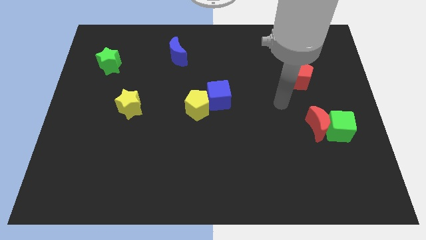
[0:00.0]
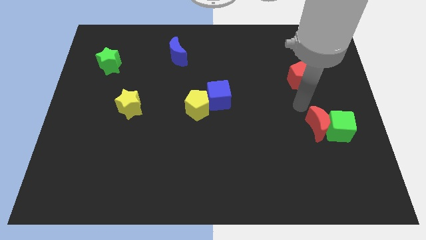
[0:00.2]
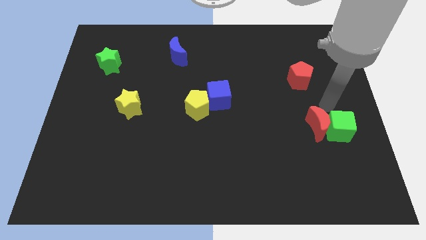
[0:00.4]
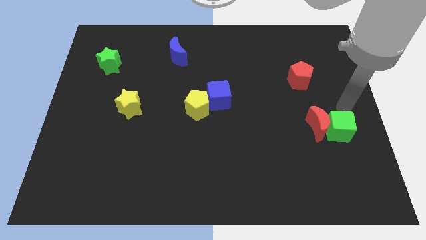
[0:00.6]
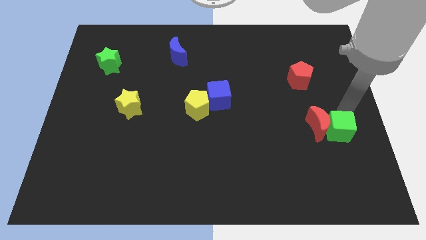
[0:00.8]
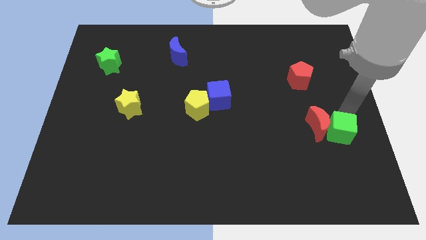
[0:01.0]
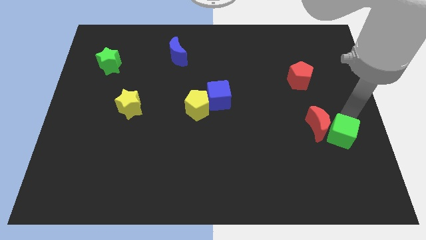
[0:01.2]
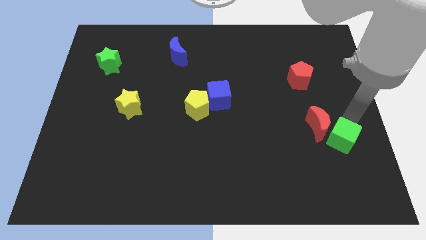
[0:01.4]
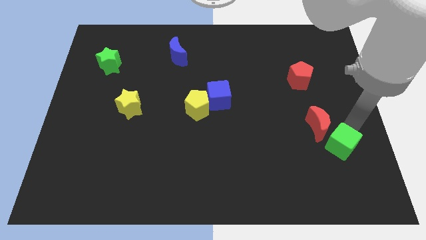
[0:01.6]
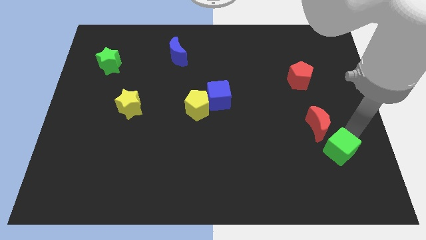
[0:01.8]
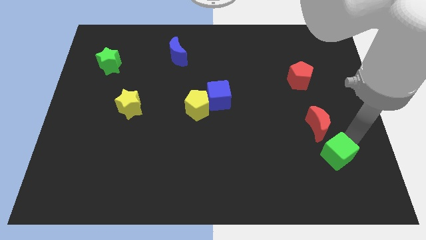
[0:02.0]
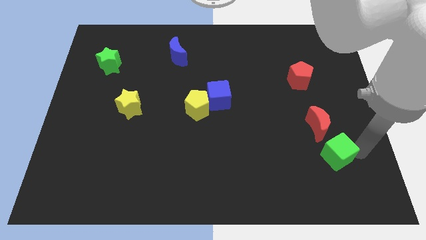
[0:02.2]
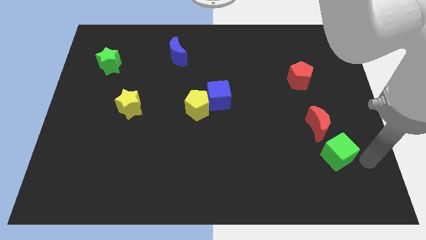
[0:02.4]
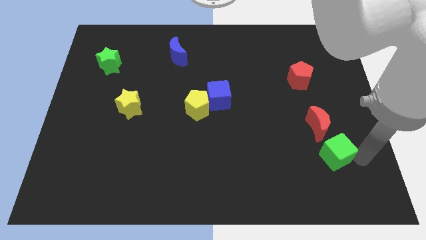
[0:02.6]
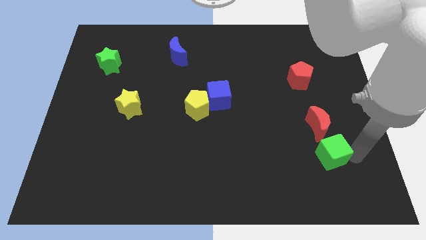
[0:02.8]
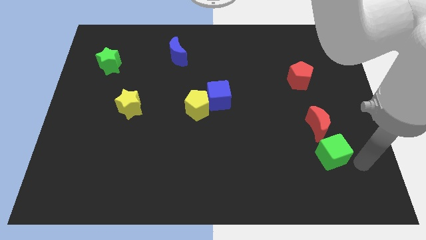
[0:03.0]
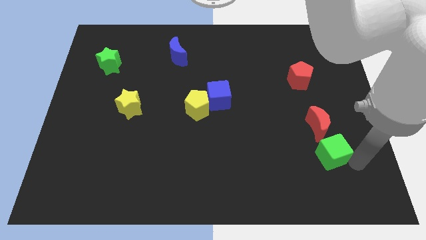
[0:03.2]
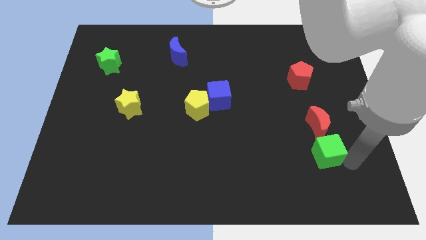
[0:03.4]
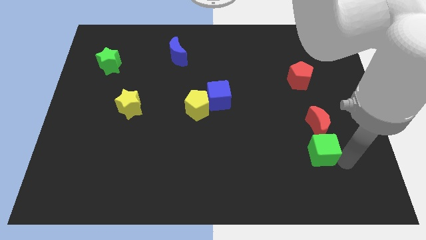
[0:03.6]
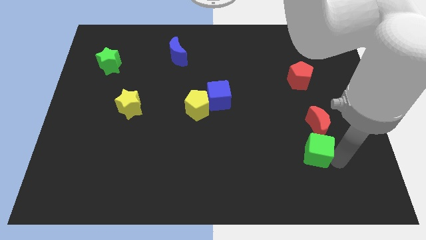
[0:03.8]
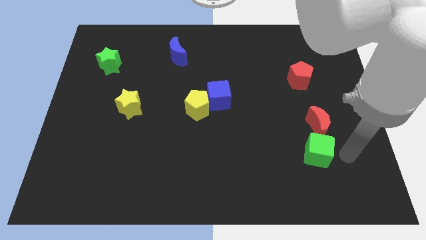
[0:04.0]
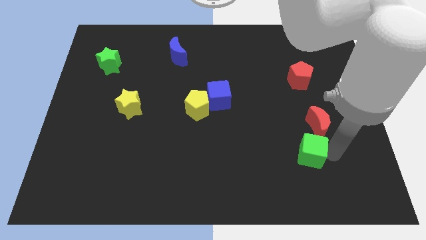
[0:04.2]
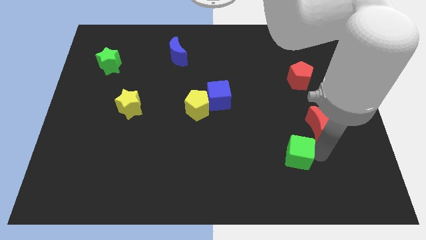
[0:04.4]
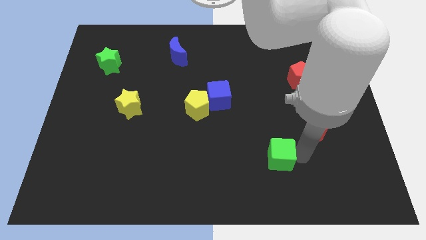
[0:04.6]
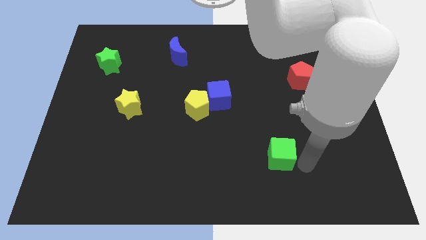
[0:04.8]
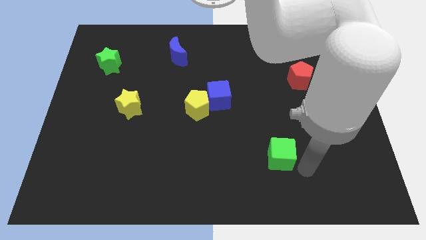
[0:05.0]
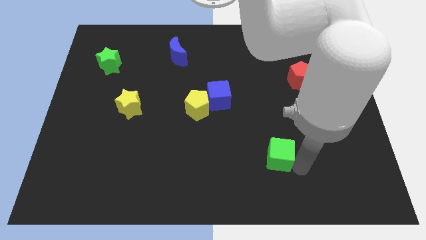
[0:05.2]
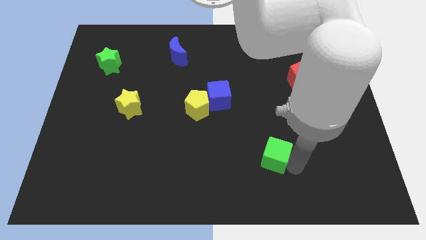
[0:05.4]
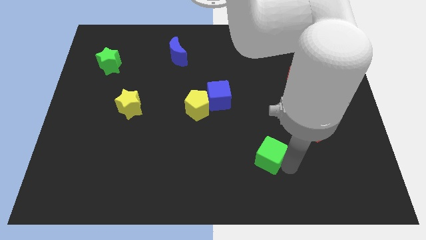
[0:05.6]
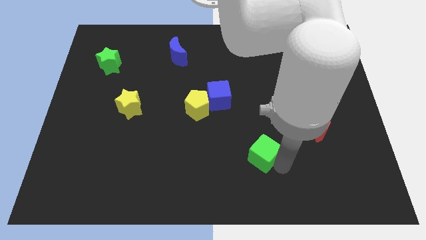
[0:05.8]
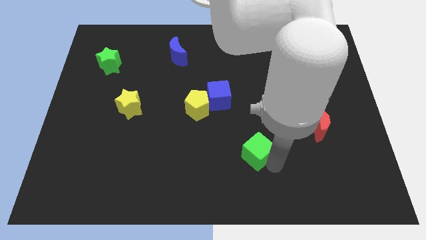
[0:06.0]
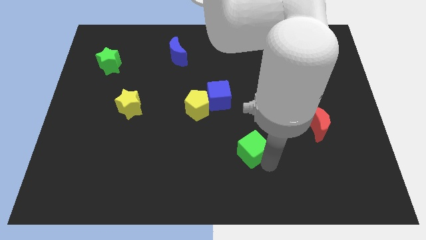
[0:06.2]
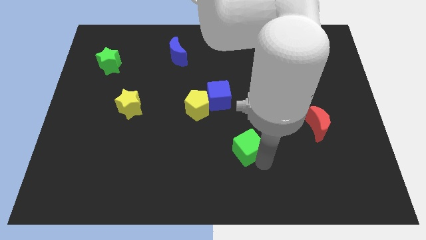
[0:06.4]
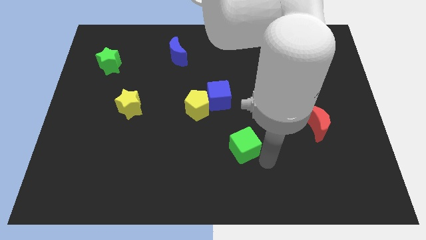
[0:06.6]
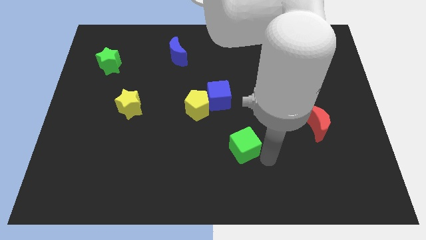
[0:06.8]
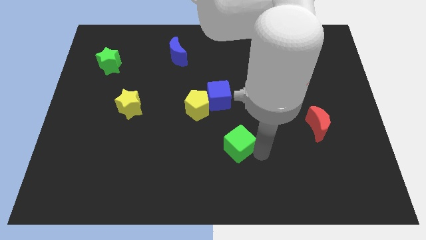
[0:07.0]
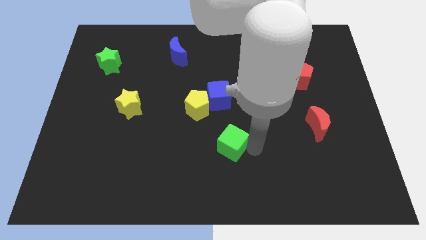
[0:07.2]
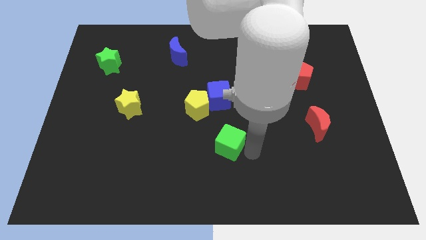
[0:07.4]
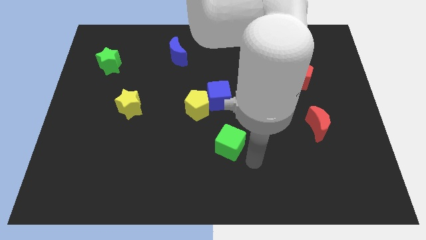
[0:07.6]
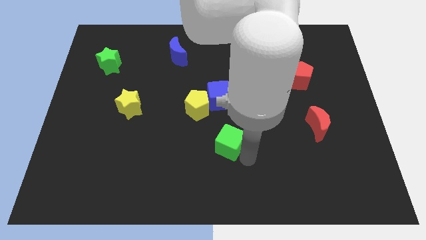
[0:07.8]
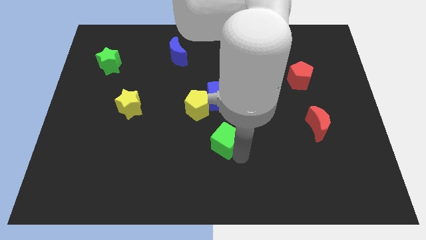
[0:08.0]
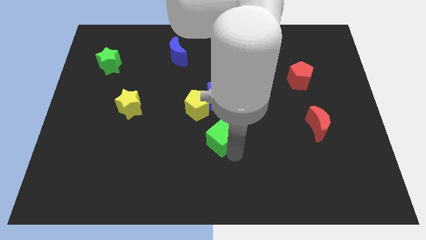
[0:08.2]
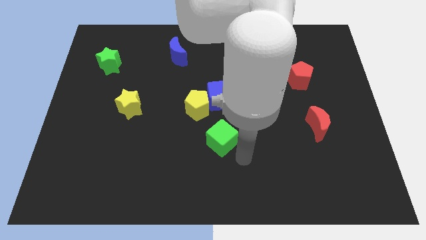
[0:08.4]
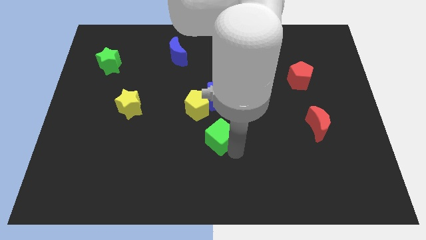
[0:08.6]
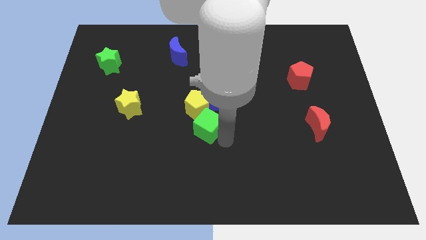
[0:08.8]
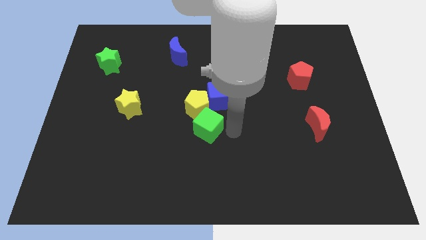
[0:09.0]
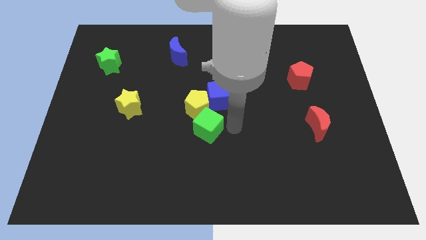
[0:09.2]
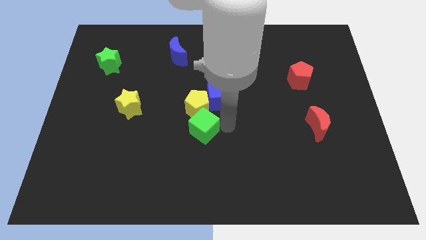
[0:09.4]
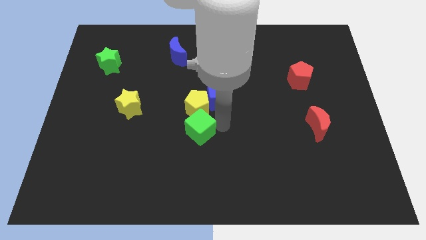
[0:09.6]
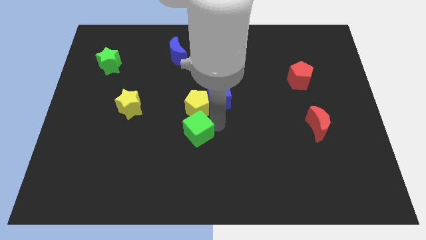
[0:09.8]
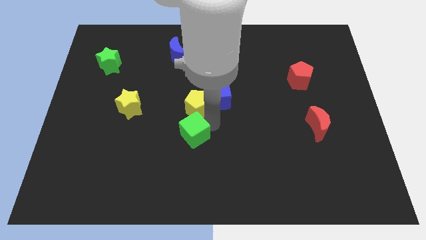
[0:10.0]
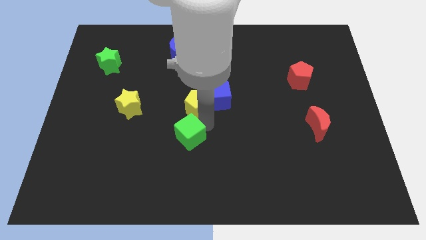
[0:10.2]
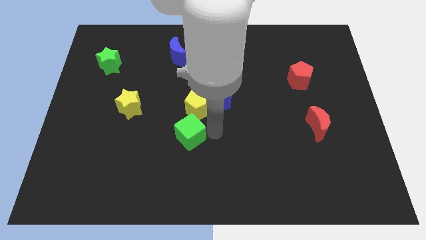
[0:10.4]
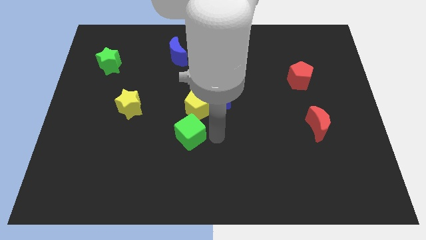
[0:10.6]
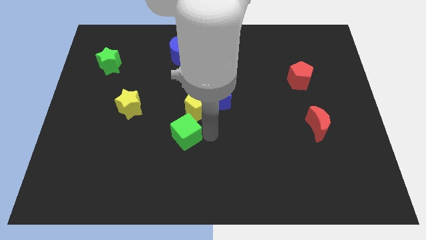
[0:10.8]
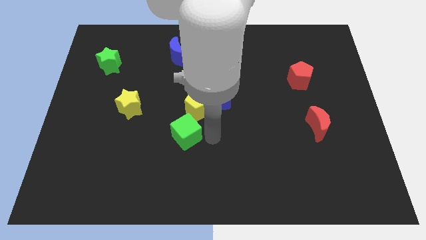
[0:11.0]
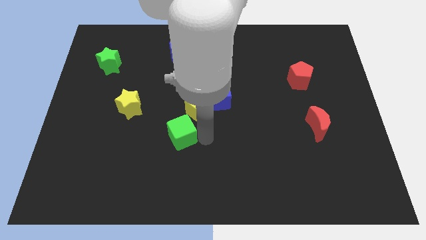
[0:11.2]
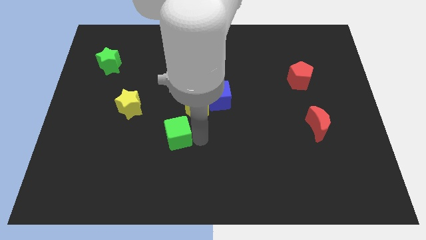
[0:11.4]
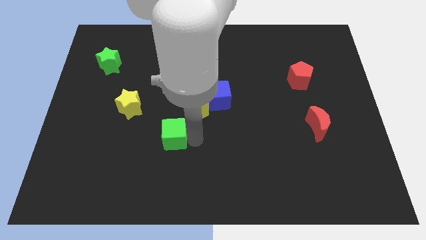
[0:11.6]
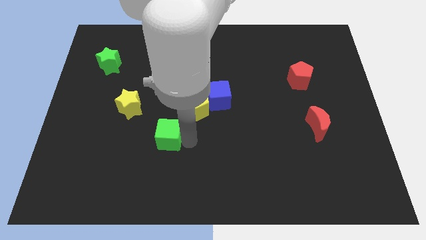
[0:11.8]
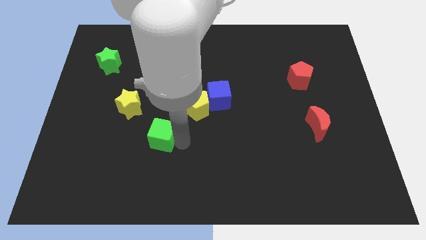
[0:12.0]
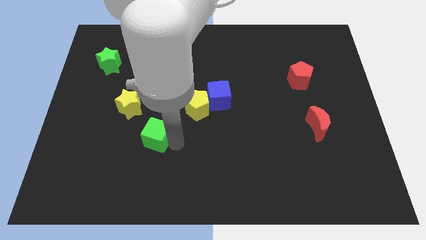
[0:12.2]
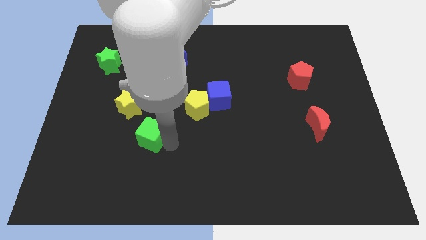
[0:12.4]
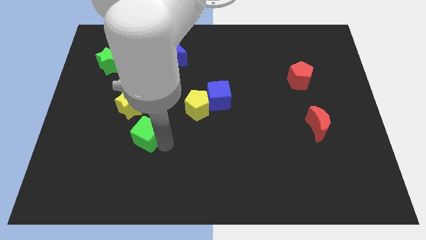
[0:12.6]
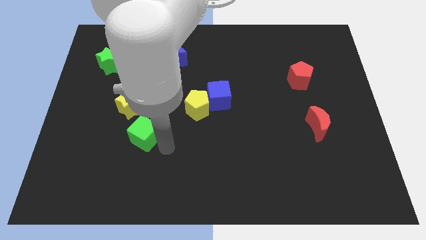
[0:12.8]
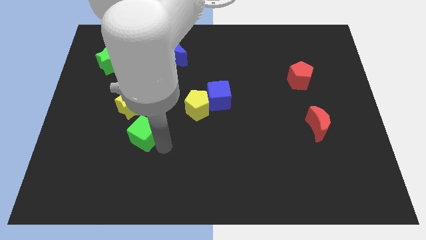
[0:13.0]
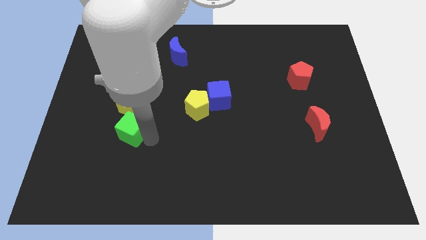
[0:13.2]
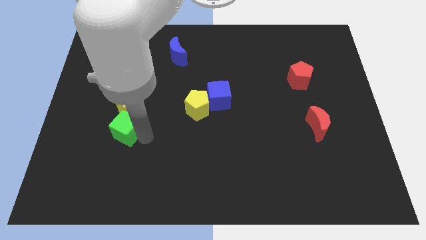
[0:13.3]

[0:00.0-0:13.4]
push the green cube to the bottom left side of the yellow star
